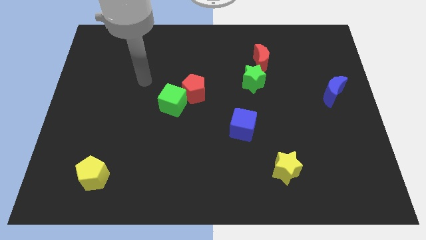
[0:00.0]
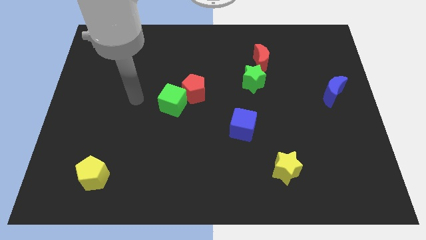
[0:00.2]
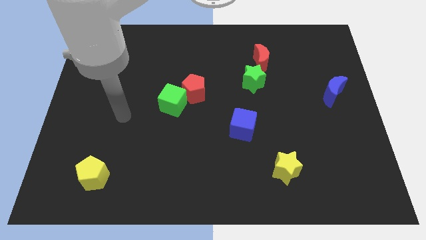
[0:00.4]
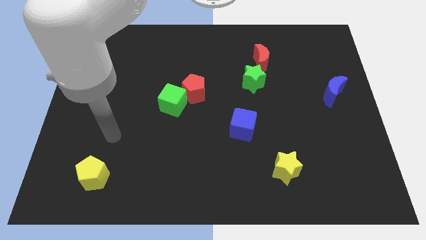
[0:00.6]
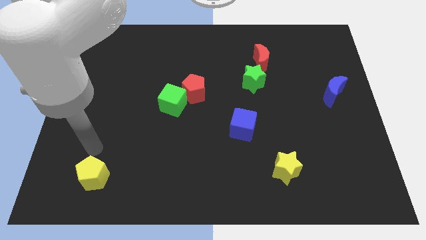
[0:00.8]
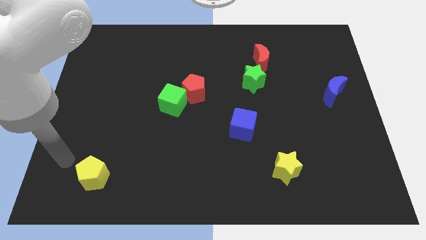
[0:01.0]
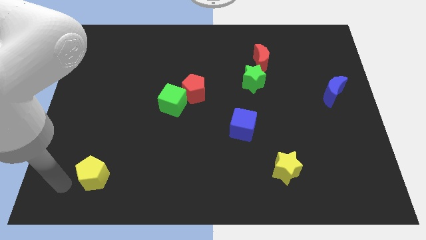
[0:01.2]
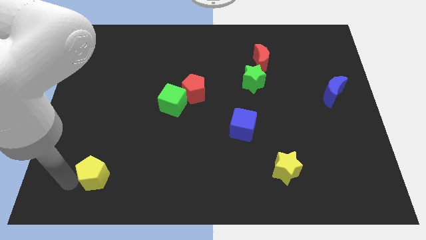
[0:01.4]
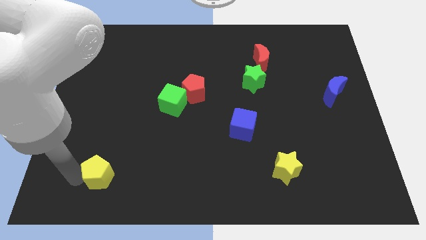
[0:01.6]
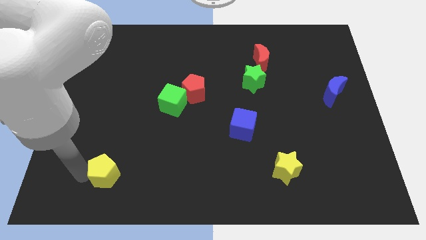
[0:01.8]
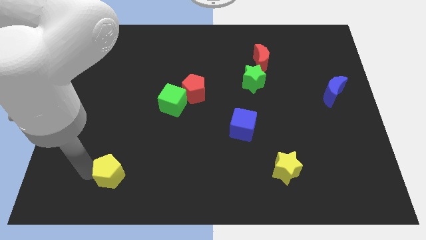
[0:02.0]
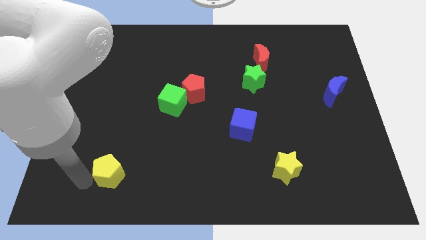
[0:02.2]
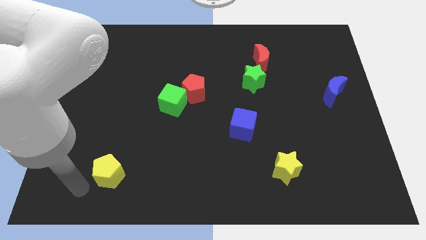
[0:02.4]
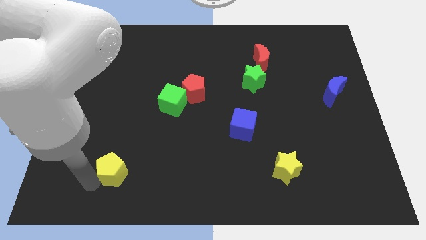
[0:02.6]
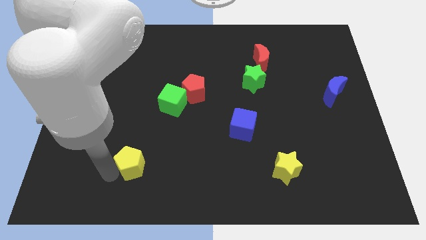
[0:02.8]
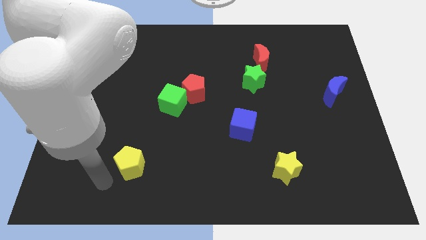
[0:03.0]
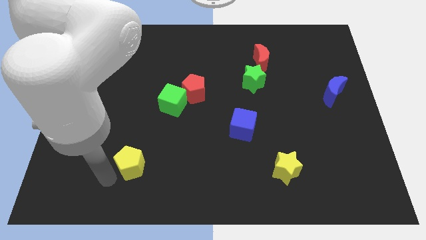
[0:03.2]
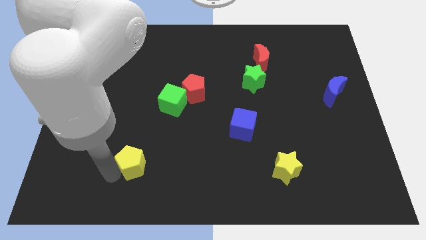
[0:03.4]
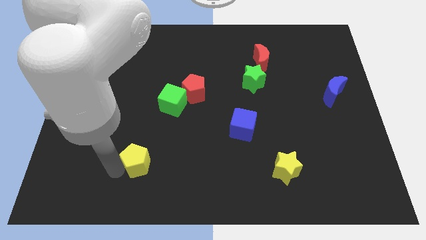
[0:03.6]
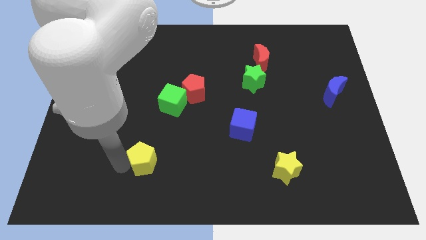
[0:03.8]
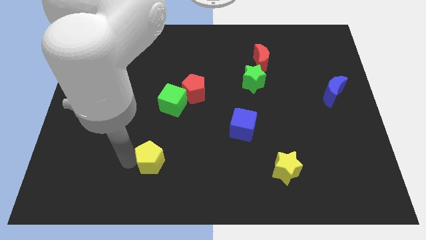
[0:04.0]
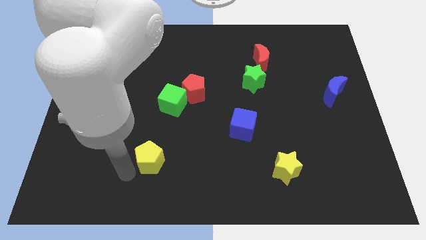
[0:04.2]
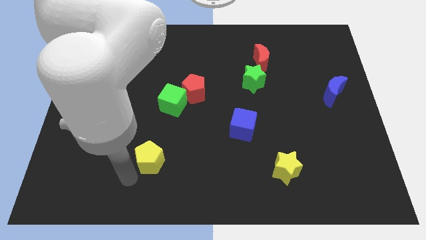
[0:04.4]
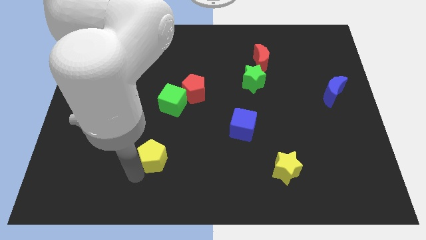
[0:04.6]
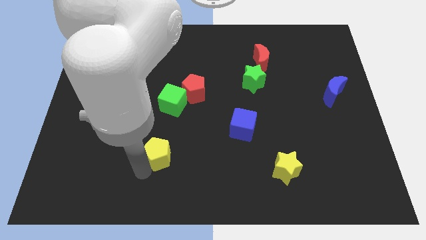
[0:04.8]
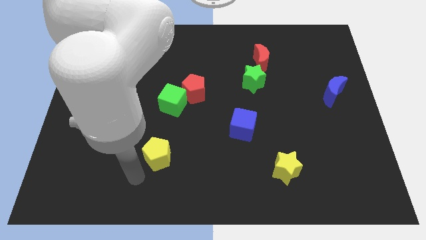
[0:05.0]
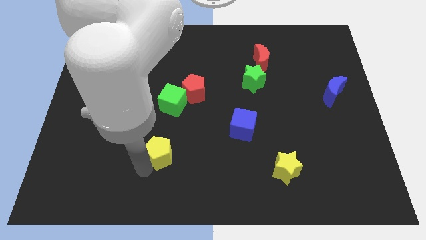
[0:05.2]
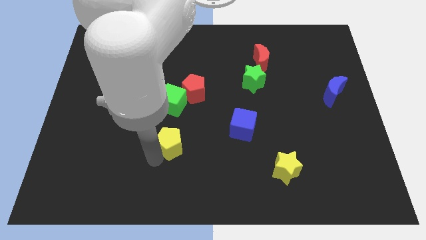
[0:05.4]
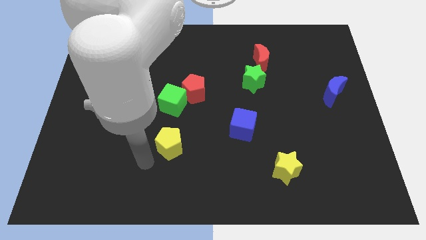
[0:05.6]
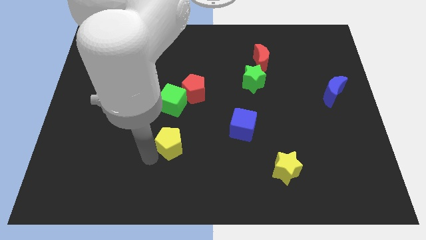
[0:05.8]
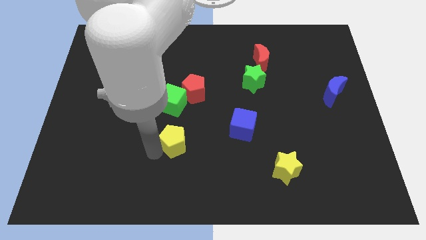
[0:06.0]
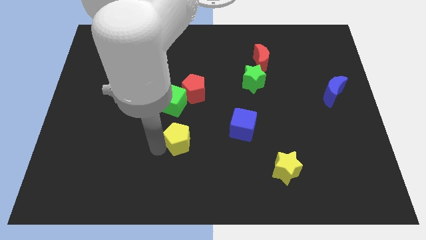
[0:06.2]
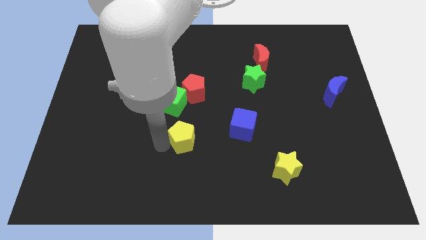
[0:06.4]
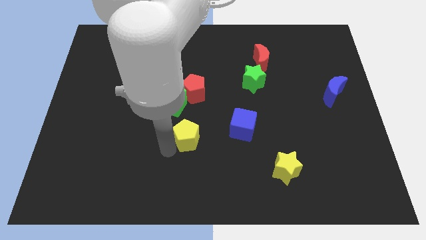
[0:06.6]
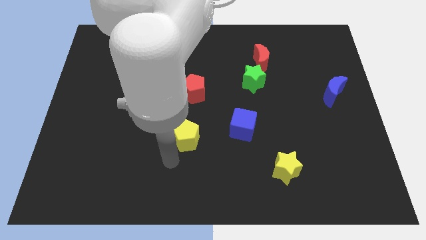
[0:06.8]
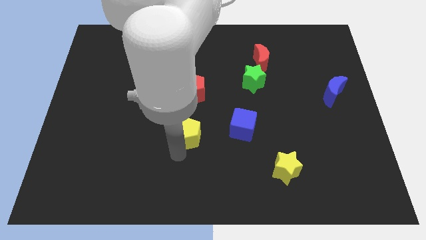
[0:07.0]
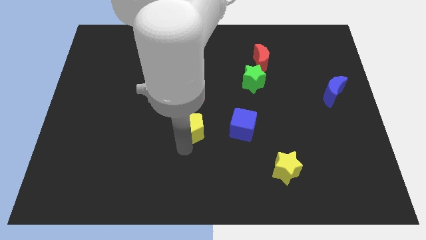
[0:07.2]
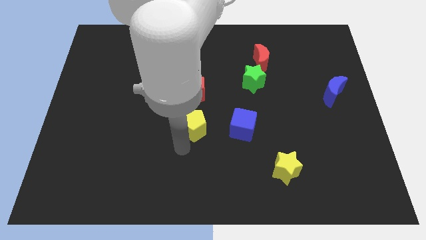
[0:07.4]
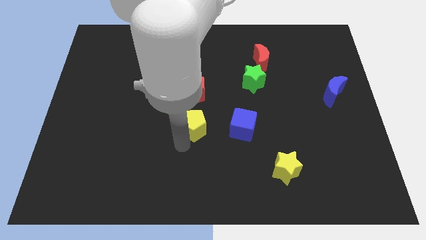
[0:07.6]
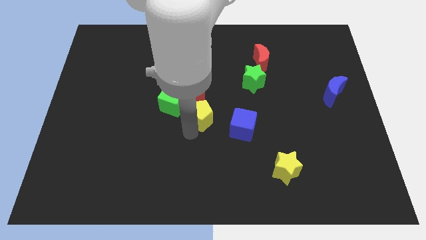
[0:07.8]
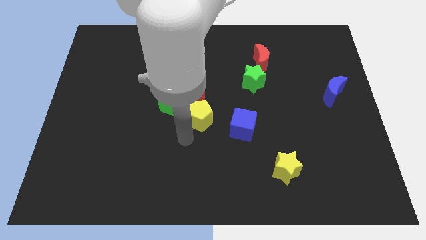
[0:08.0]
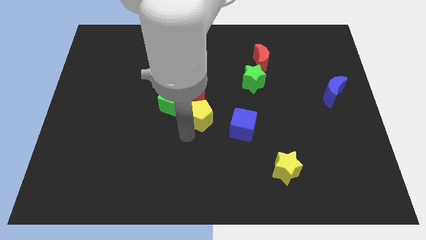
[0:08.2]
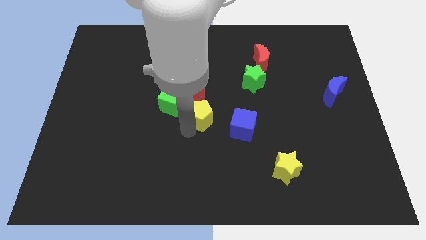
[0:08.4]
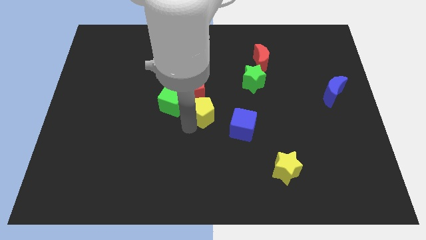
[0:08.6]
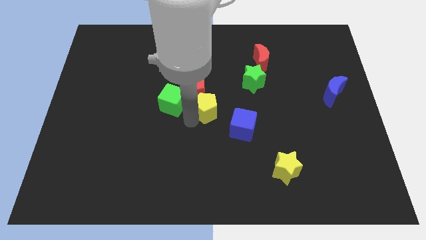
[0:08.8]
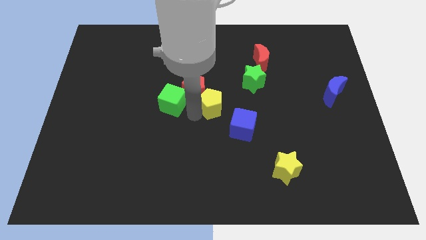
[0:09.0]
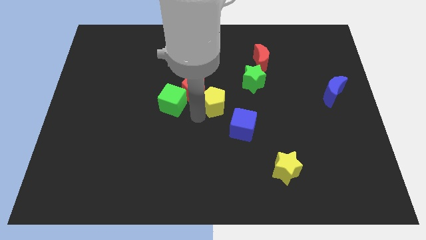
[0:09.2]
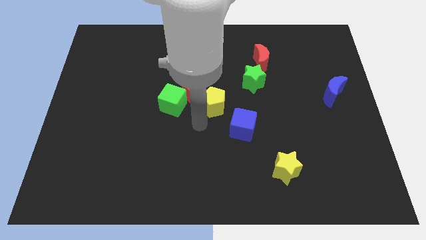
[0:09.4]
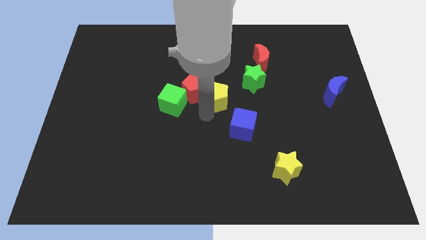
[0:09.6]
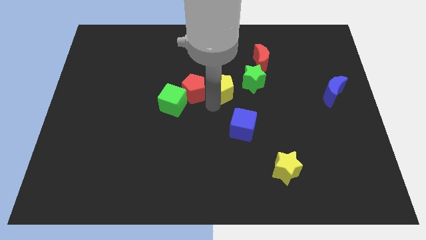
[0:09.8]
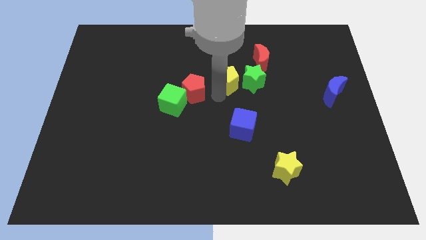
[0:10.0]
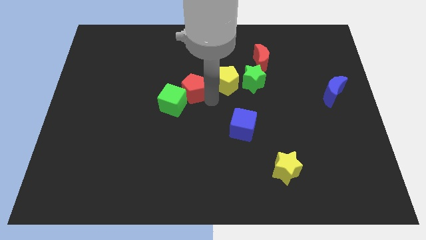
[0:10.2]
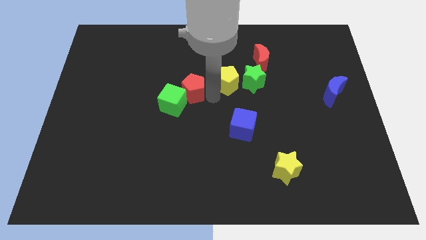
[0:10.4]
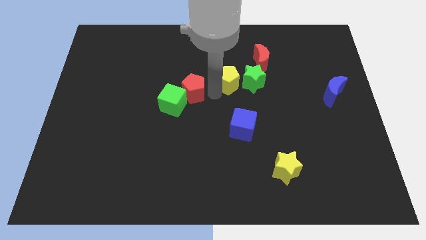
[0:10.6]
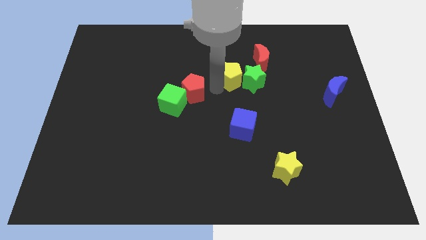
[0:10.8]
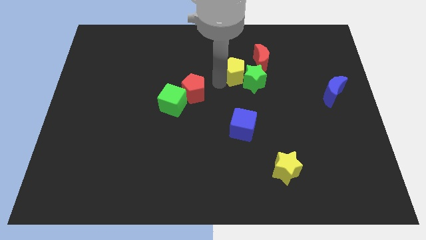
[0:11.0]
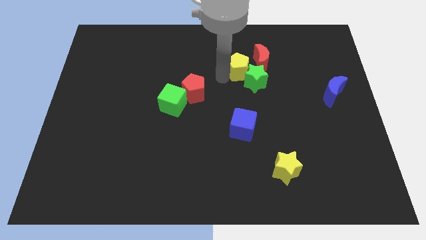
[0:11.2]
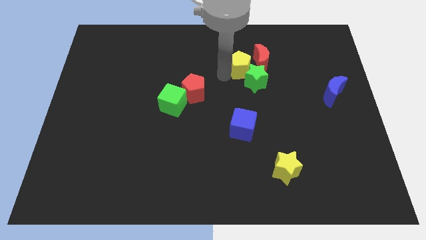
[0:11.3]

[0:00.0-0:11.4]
push the yellow pentagon to the red moon

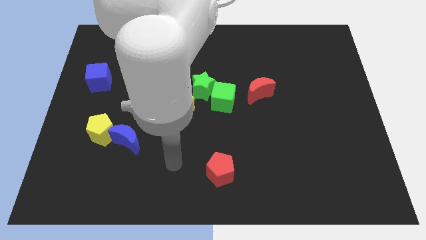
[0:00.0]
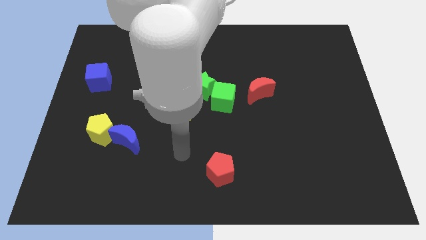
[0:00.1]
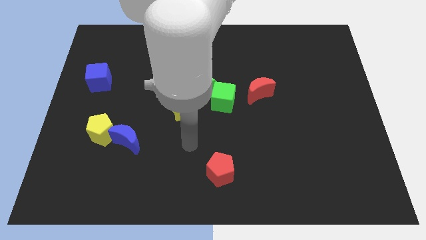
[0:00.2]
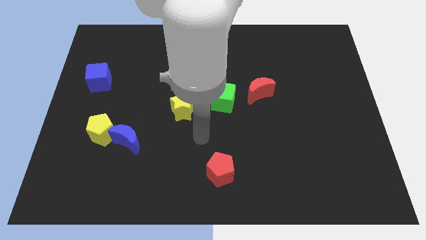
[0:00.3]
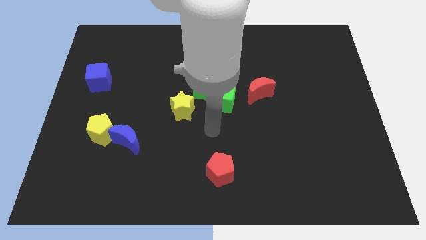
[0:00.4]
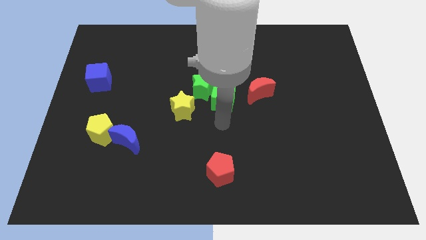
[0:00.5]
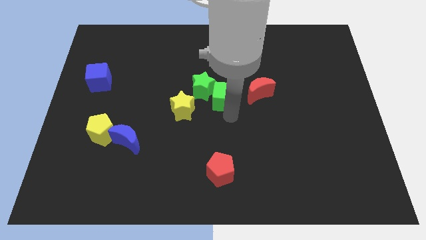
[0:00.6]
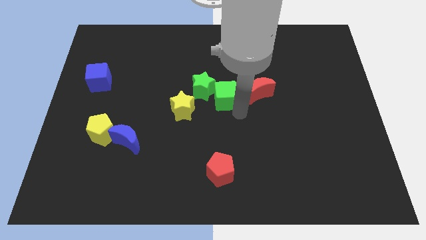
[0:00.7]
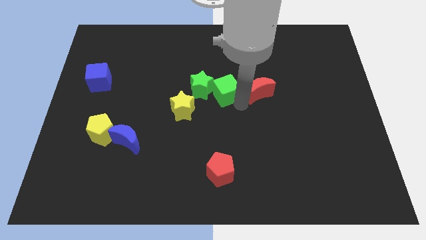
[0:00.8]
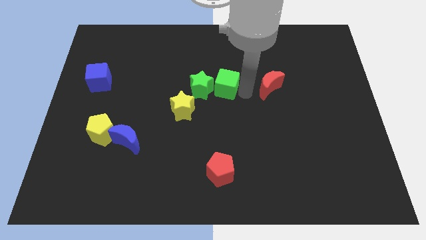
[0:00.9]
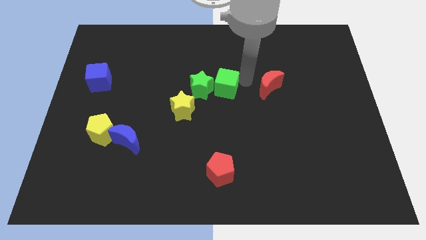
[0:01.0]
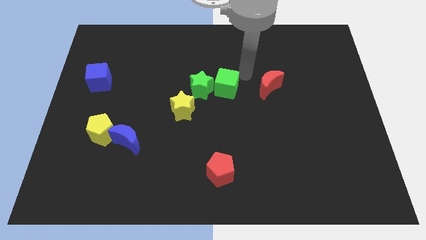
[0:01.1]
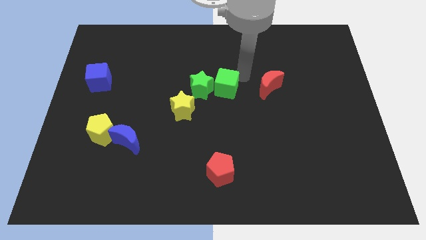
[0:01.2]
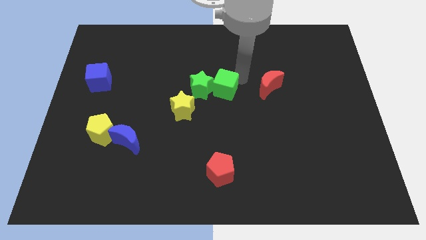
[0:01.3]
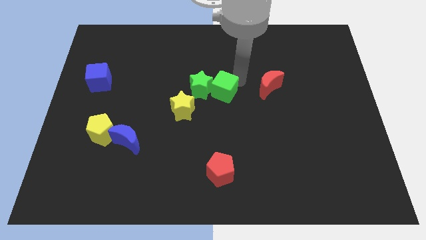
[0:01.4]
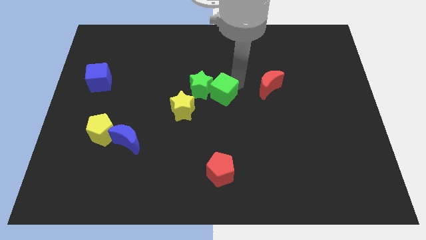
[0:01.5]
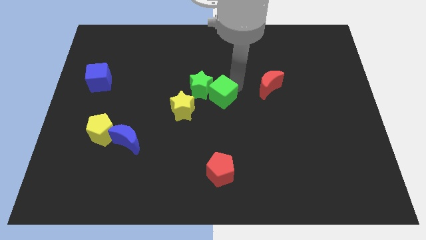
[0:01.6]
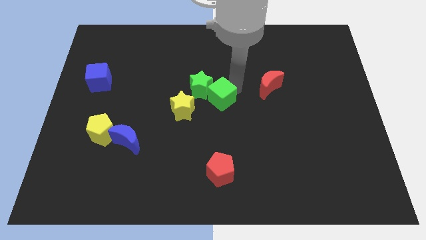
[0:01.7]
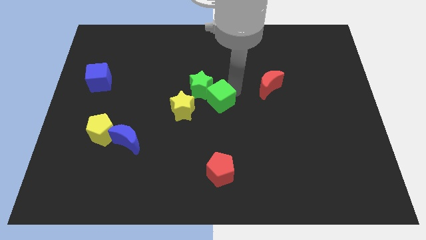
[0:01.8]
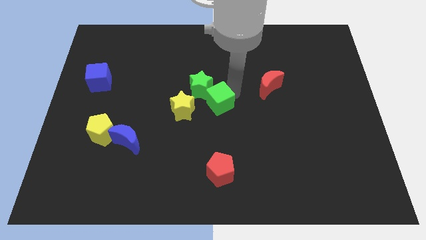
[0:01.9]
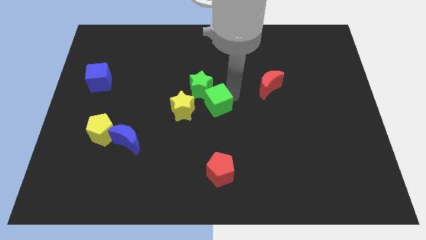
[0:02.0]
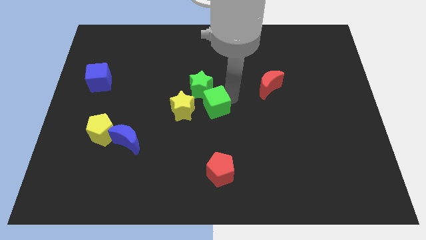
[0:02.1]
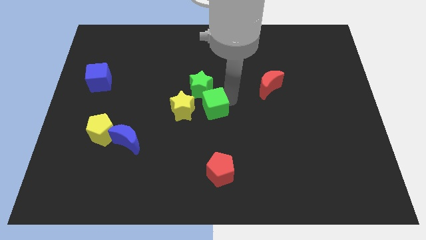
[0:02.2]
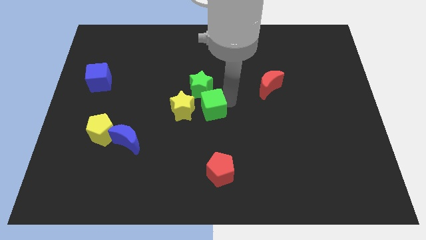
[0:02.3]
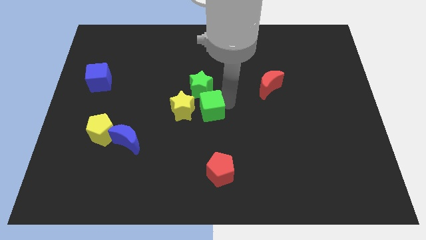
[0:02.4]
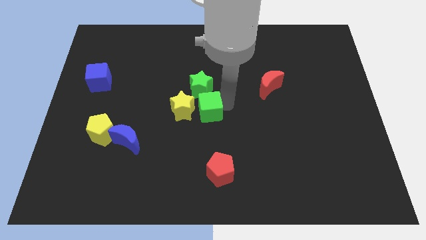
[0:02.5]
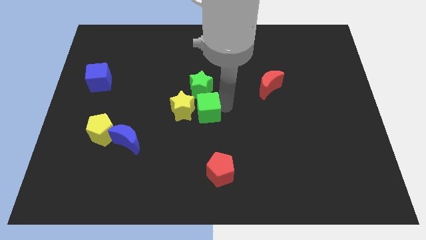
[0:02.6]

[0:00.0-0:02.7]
move the green cube next to the yellow star
